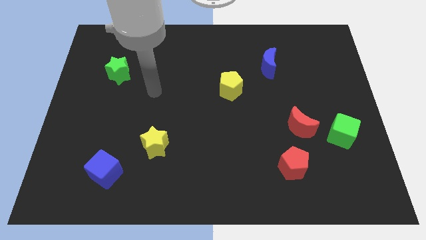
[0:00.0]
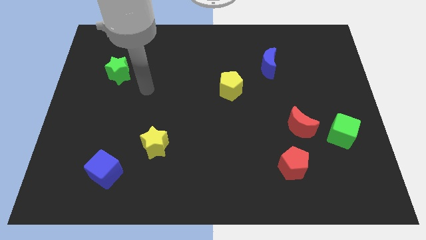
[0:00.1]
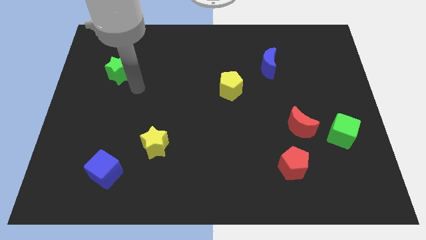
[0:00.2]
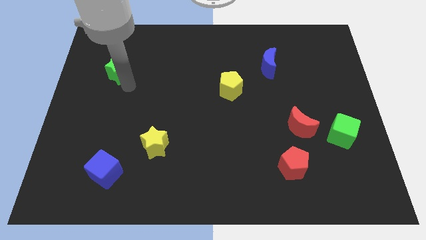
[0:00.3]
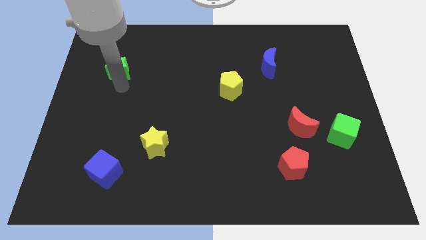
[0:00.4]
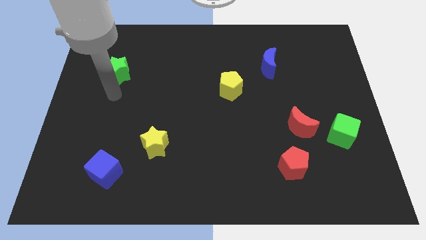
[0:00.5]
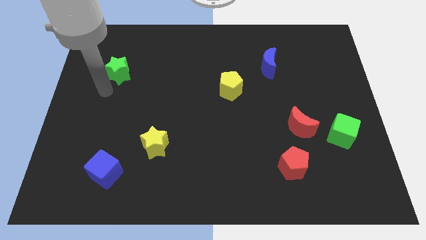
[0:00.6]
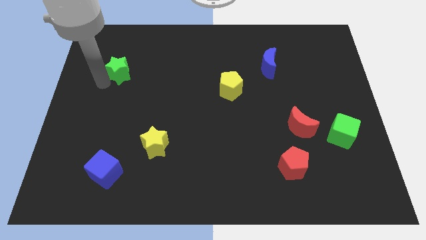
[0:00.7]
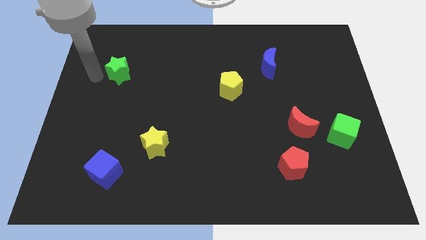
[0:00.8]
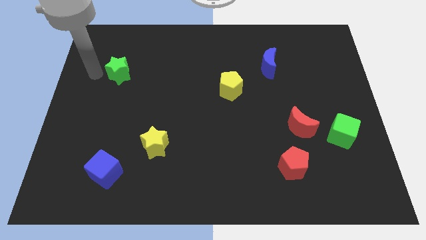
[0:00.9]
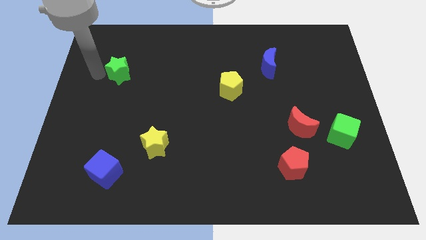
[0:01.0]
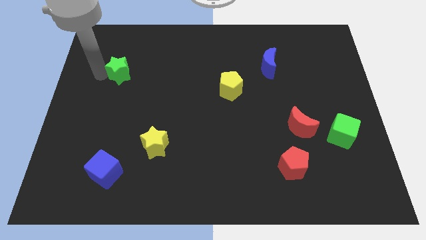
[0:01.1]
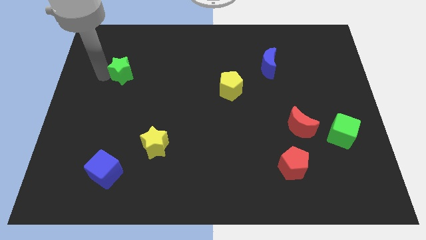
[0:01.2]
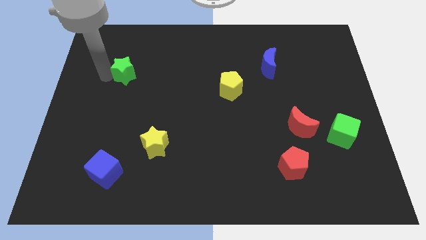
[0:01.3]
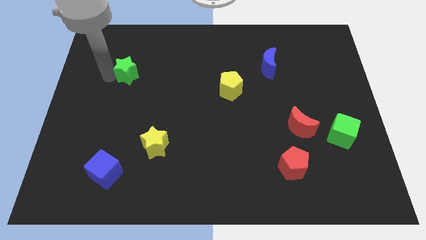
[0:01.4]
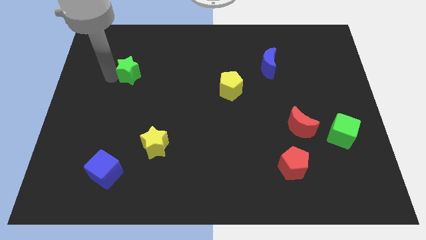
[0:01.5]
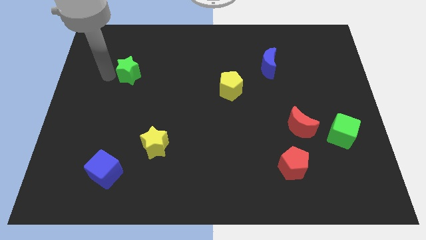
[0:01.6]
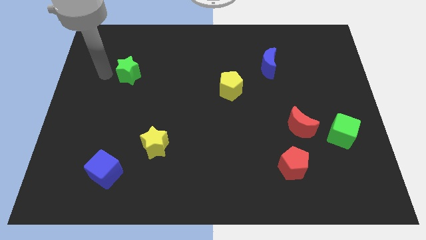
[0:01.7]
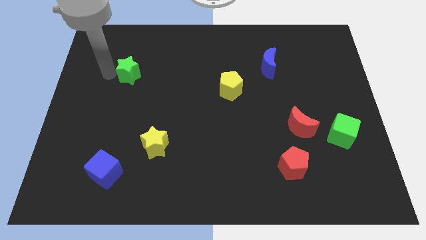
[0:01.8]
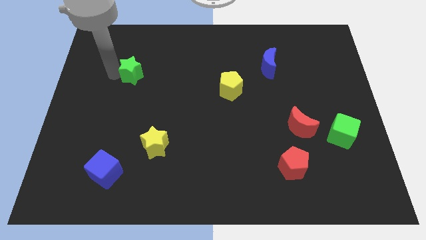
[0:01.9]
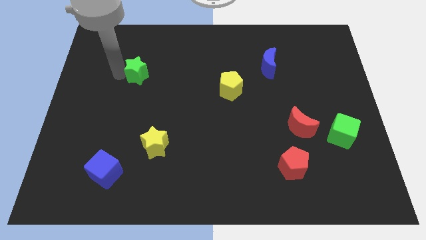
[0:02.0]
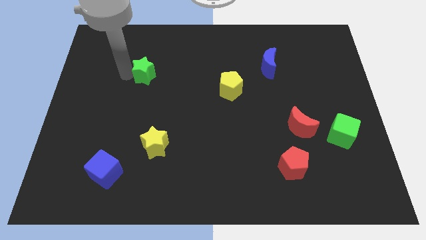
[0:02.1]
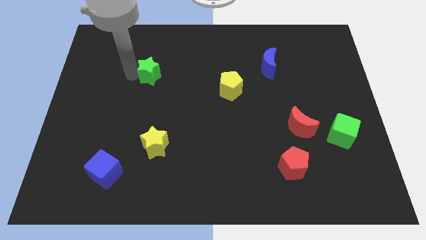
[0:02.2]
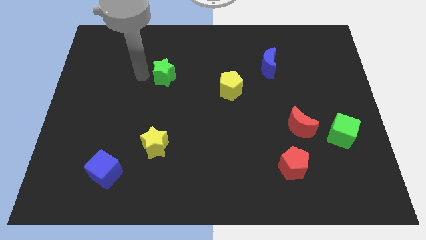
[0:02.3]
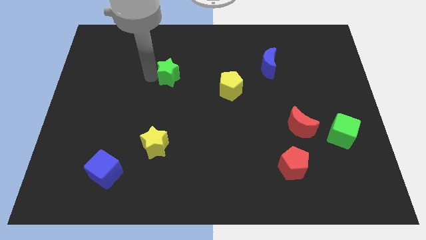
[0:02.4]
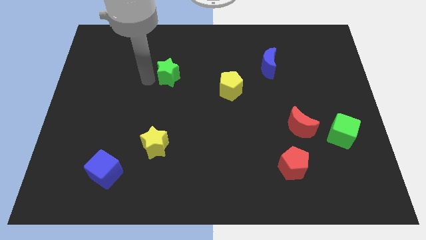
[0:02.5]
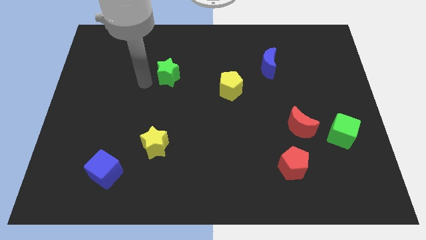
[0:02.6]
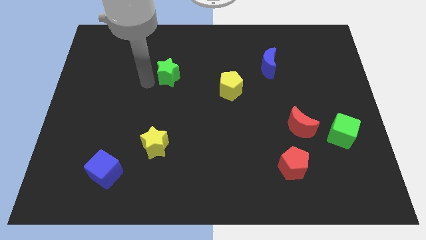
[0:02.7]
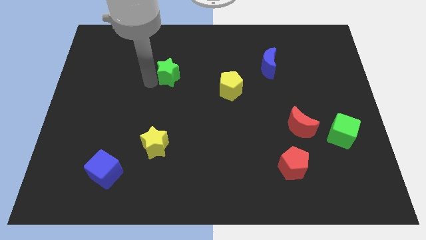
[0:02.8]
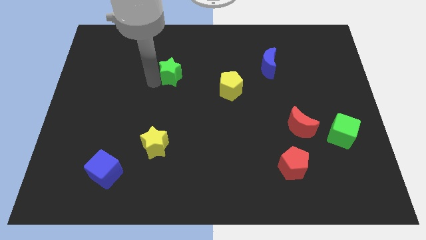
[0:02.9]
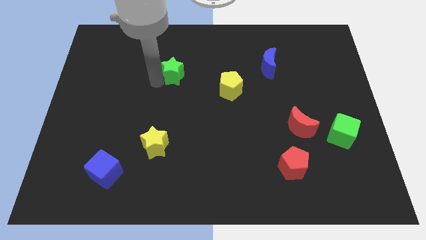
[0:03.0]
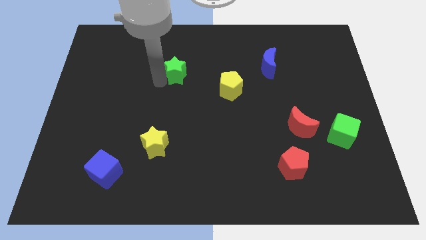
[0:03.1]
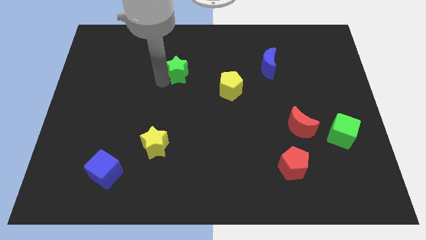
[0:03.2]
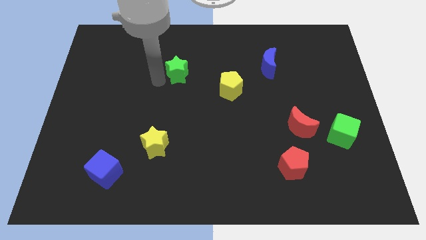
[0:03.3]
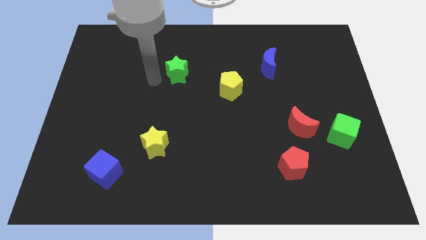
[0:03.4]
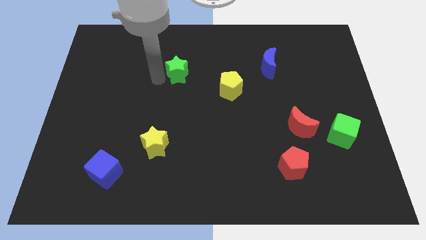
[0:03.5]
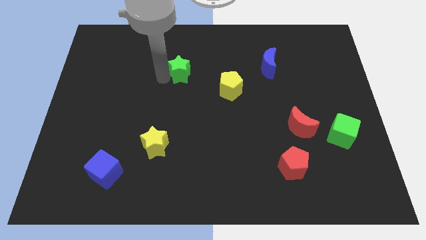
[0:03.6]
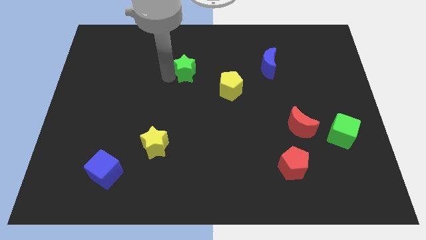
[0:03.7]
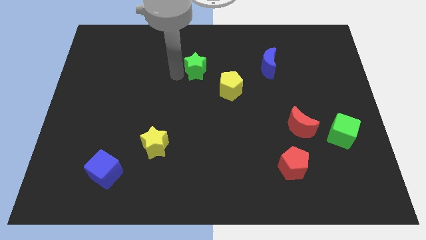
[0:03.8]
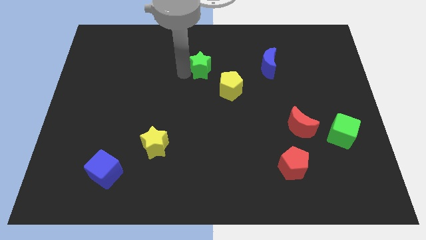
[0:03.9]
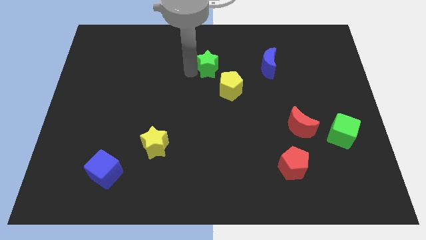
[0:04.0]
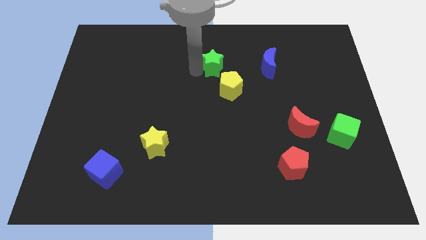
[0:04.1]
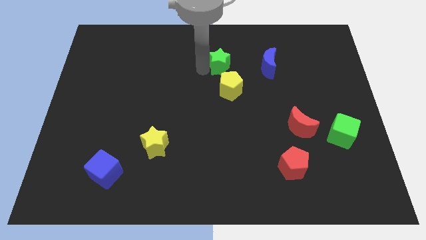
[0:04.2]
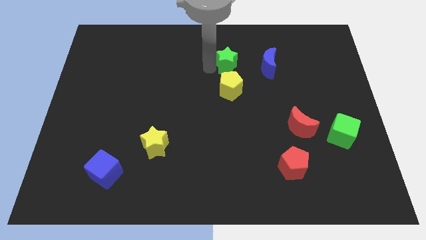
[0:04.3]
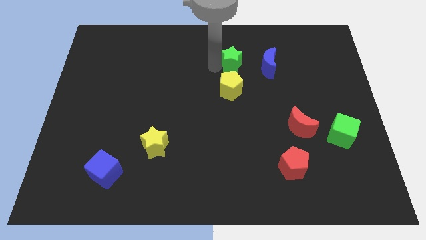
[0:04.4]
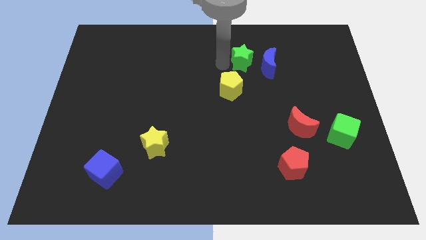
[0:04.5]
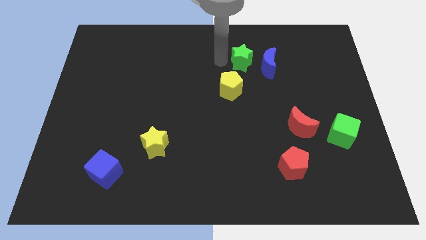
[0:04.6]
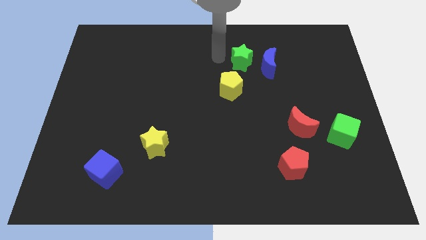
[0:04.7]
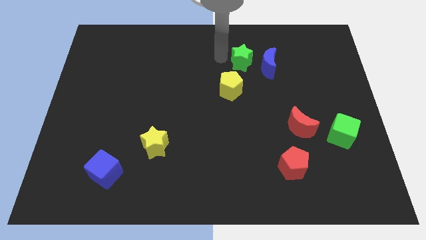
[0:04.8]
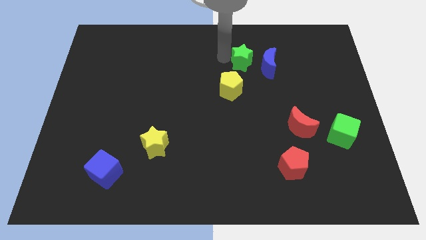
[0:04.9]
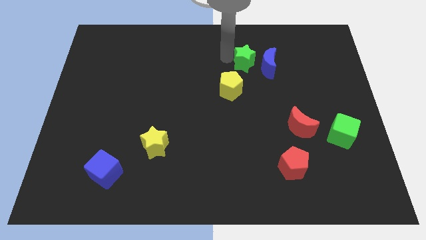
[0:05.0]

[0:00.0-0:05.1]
slide the green star next to the blue moon

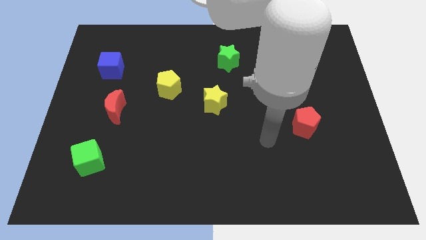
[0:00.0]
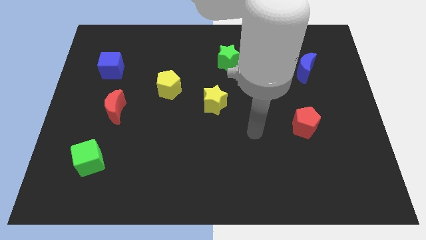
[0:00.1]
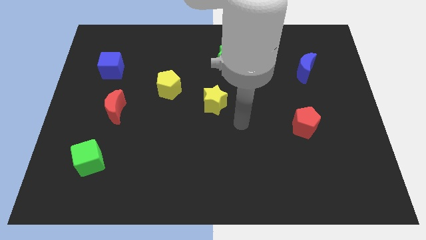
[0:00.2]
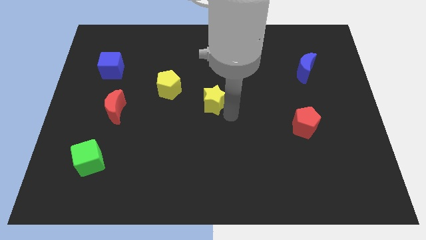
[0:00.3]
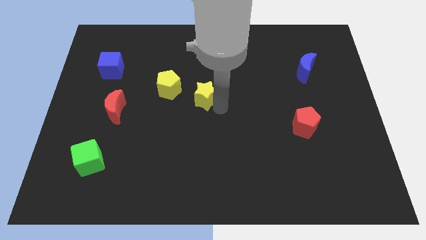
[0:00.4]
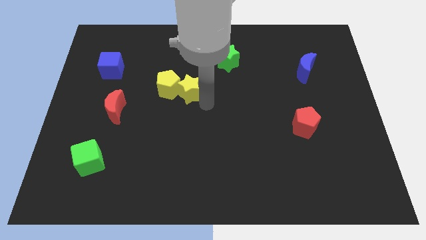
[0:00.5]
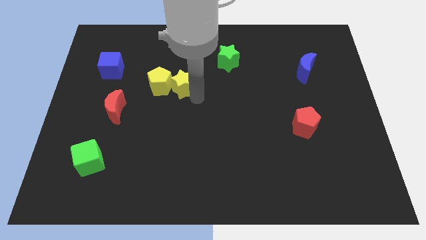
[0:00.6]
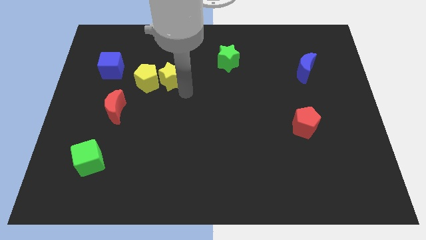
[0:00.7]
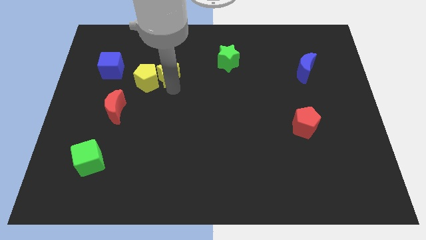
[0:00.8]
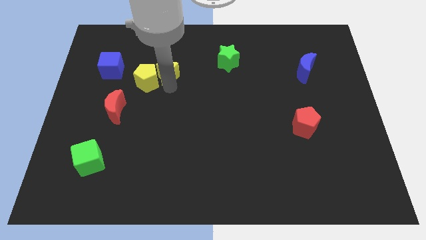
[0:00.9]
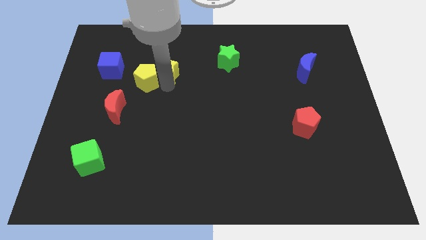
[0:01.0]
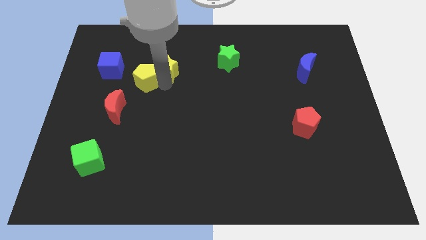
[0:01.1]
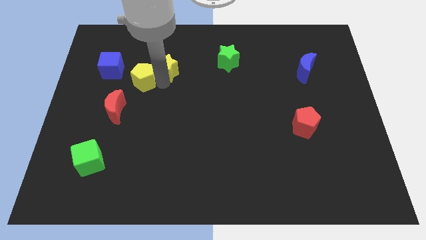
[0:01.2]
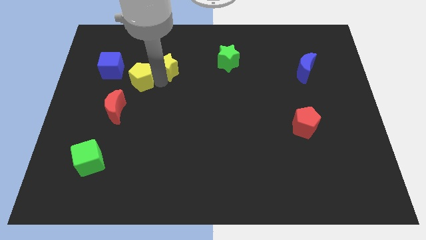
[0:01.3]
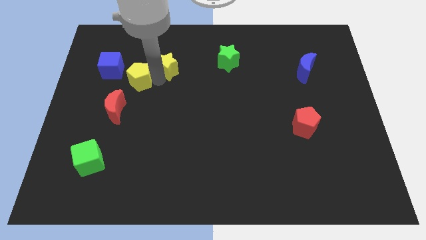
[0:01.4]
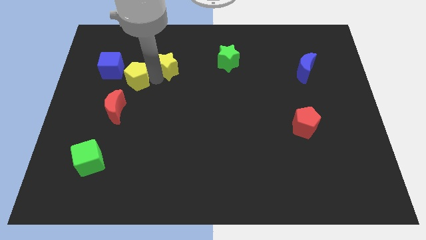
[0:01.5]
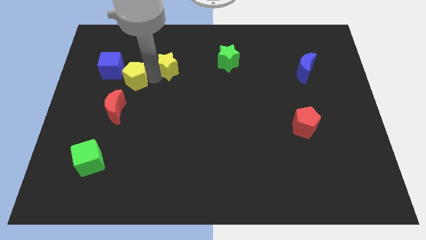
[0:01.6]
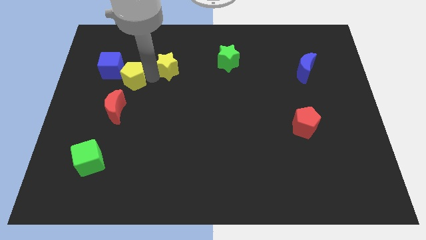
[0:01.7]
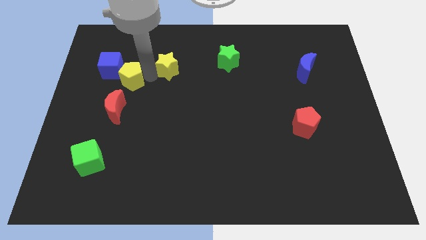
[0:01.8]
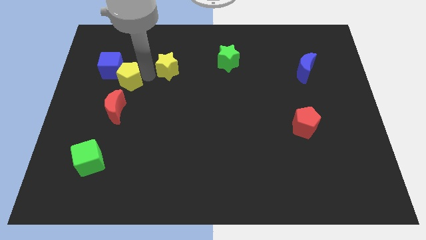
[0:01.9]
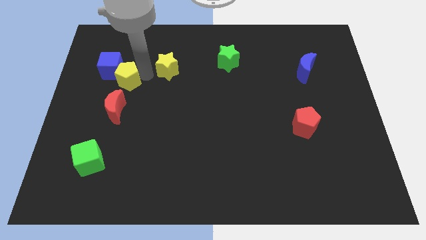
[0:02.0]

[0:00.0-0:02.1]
put the yellow pentagon to the blue cube
